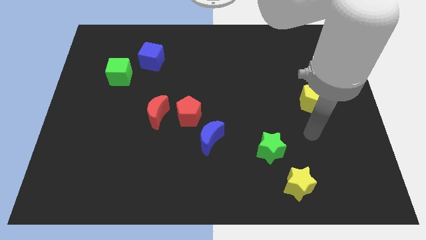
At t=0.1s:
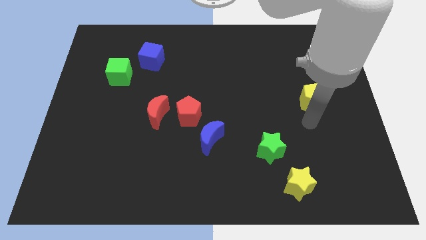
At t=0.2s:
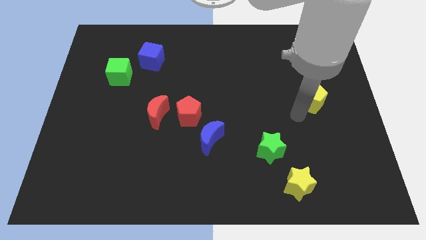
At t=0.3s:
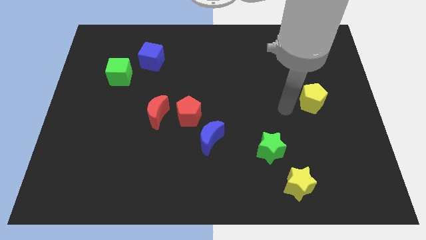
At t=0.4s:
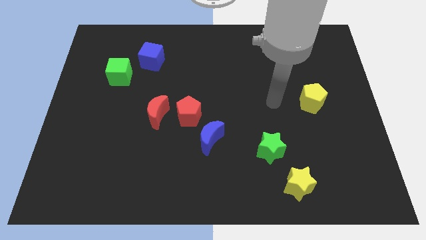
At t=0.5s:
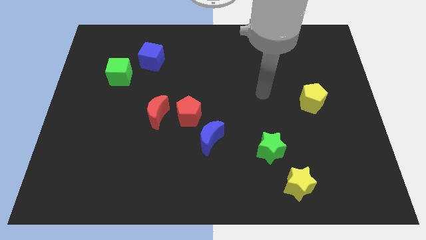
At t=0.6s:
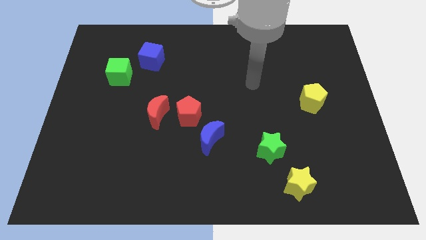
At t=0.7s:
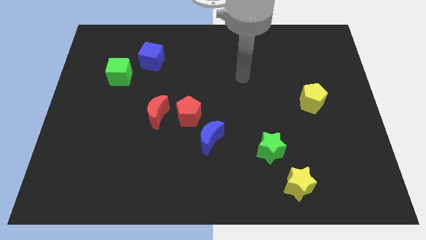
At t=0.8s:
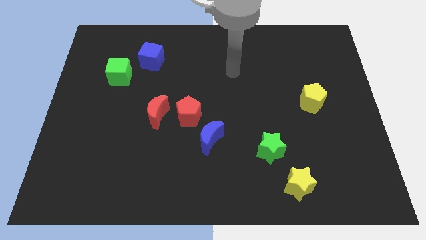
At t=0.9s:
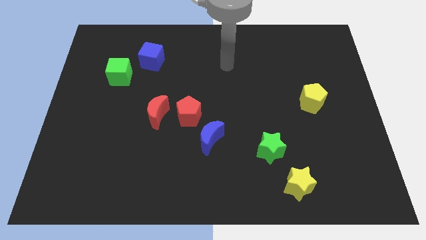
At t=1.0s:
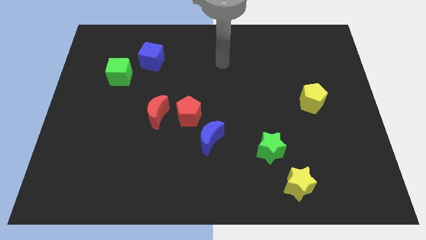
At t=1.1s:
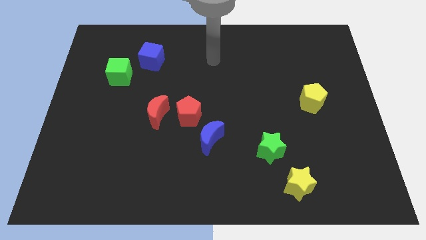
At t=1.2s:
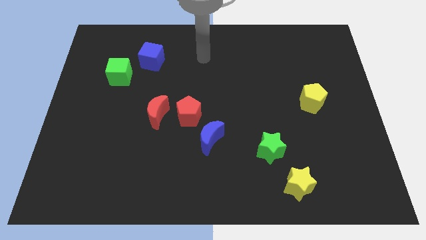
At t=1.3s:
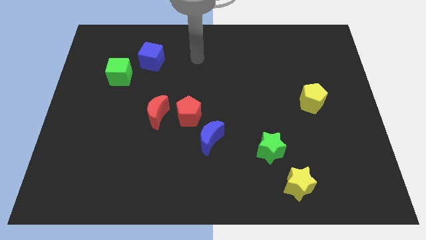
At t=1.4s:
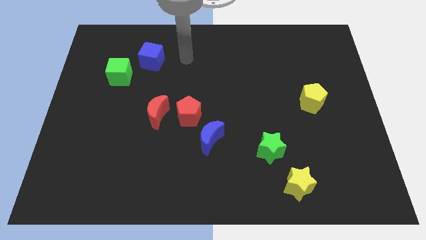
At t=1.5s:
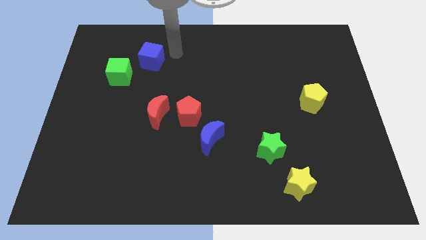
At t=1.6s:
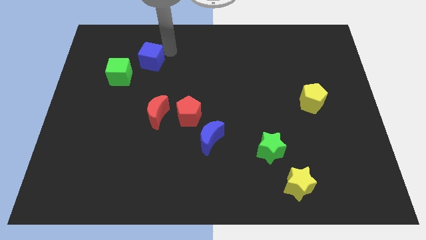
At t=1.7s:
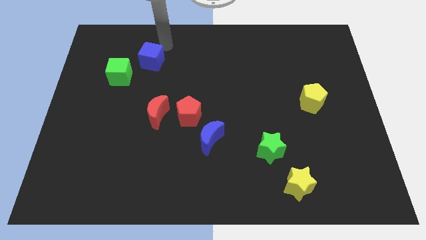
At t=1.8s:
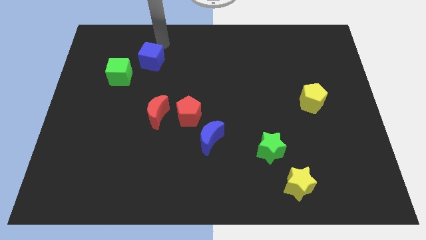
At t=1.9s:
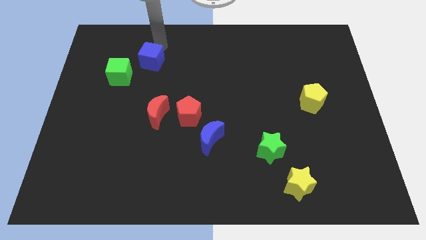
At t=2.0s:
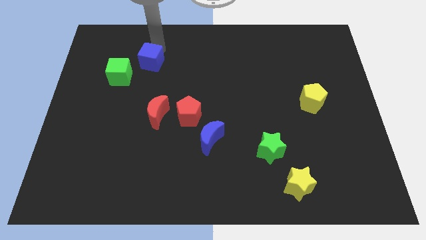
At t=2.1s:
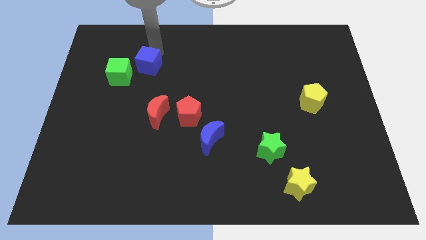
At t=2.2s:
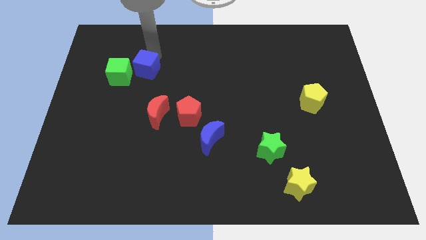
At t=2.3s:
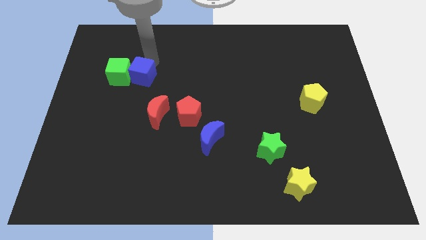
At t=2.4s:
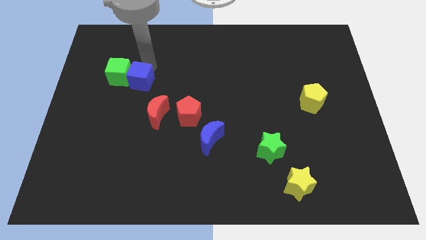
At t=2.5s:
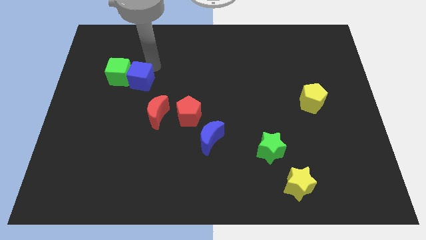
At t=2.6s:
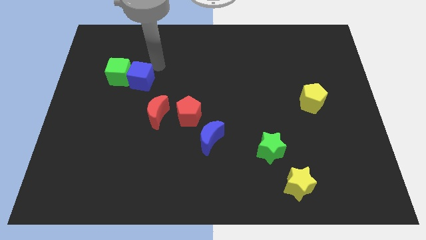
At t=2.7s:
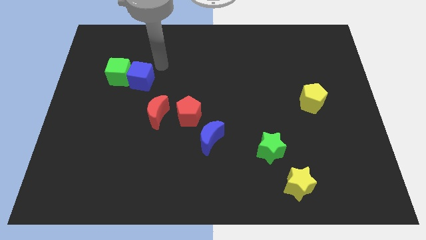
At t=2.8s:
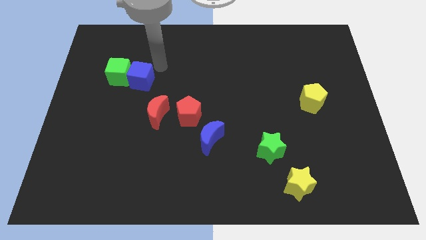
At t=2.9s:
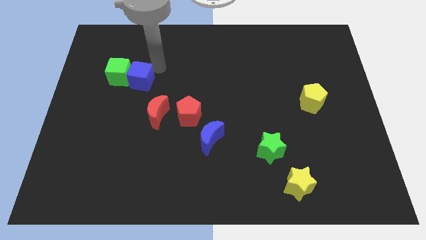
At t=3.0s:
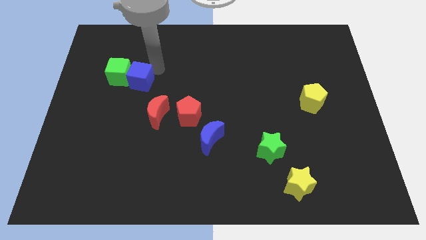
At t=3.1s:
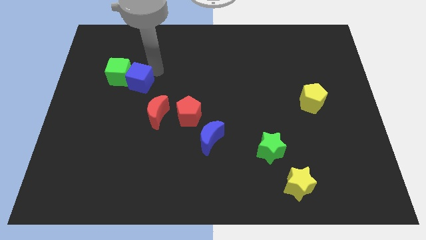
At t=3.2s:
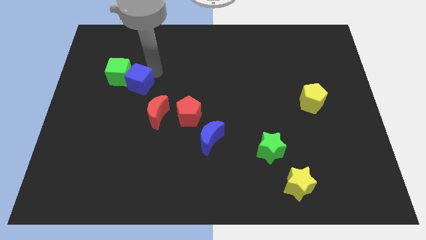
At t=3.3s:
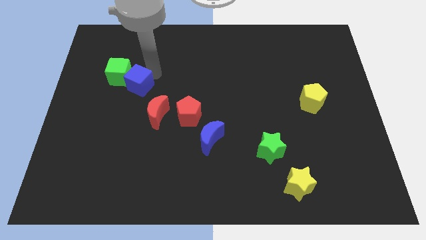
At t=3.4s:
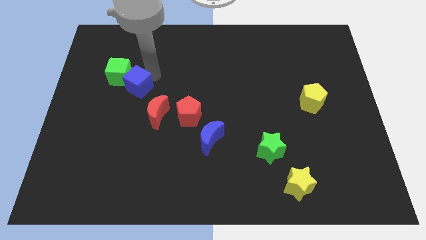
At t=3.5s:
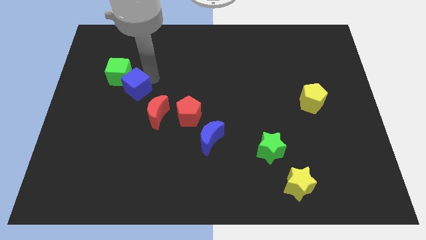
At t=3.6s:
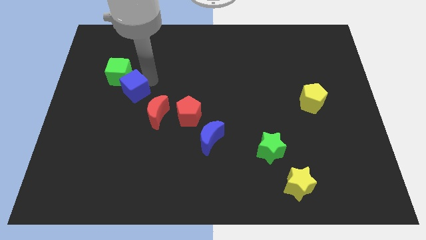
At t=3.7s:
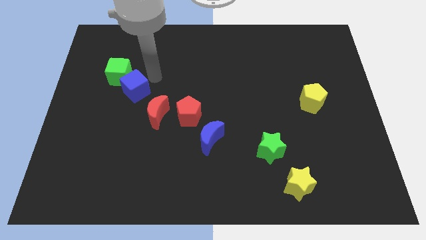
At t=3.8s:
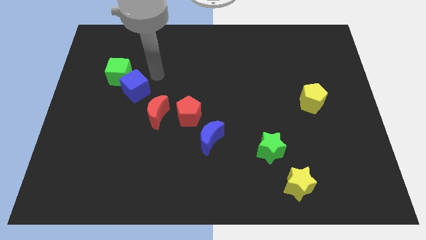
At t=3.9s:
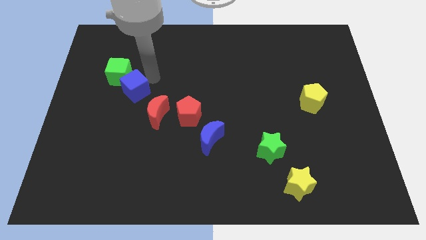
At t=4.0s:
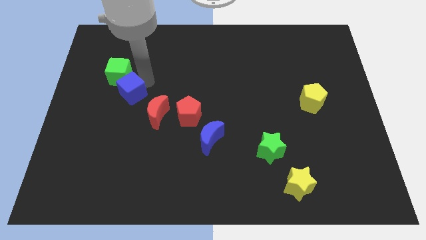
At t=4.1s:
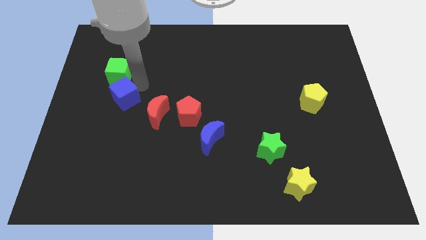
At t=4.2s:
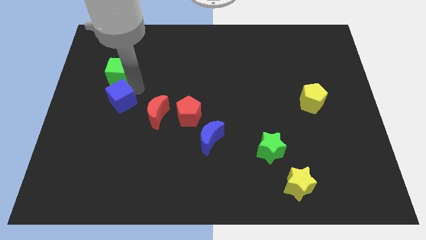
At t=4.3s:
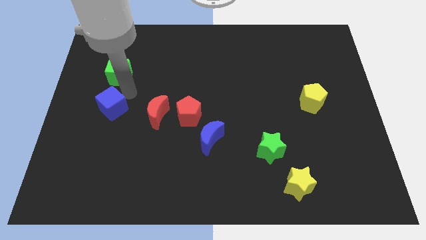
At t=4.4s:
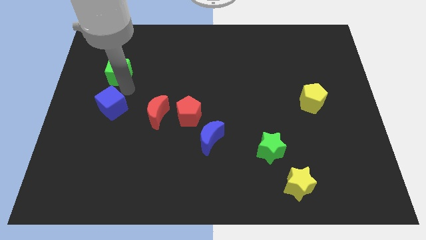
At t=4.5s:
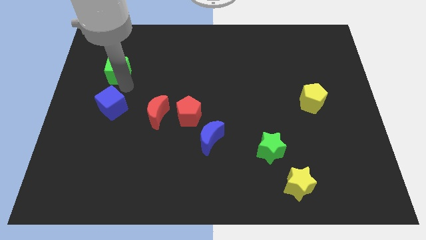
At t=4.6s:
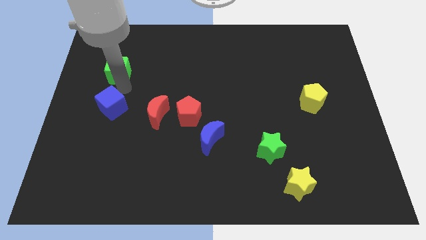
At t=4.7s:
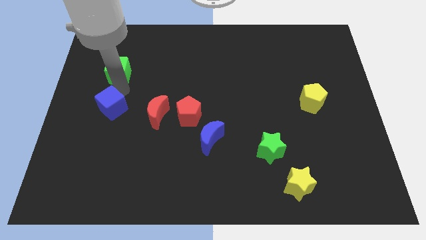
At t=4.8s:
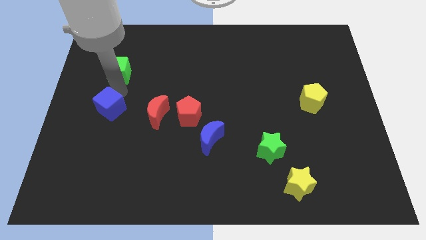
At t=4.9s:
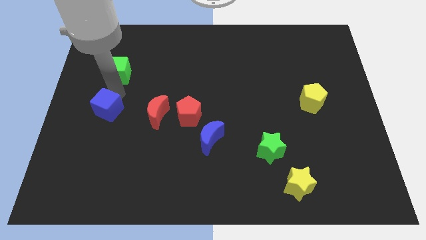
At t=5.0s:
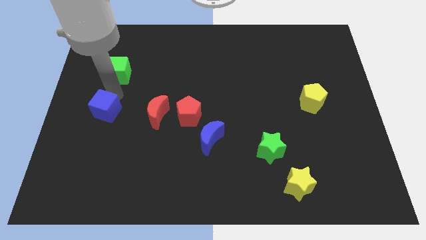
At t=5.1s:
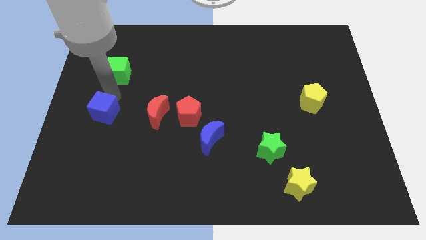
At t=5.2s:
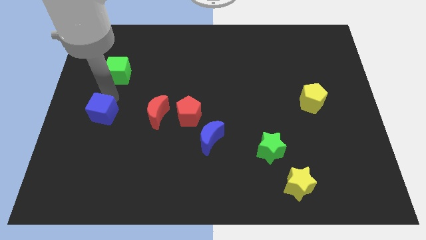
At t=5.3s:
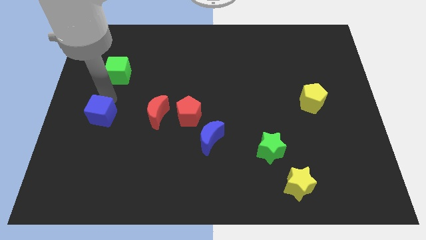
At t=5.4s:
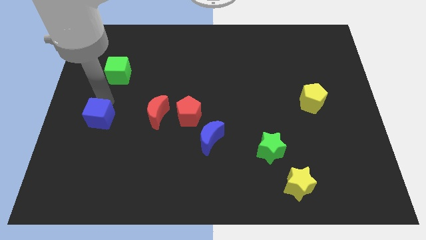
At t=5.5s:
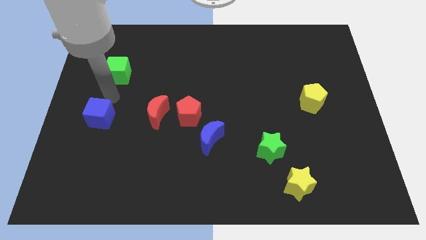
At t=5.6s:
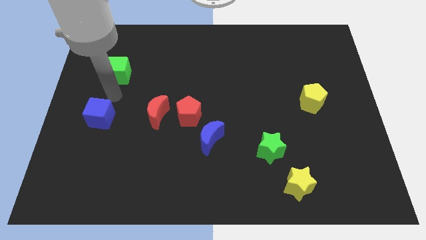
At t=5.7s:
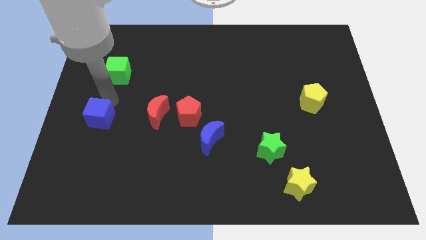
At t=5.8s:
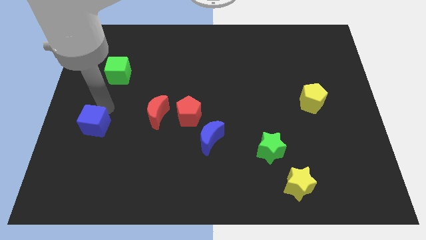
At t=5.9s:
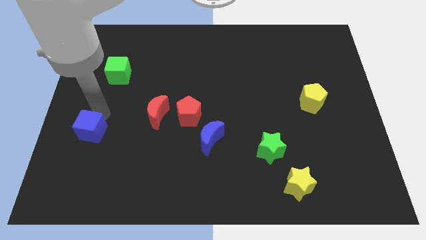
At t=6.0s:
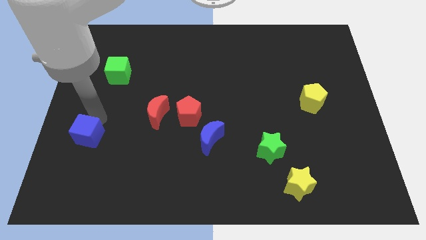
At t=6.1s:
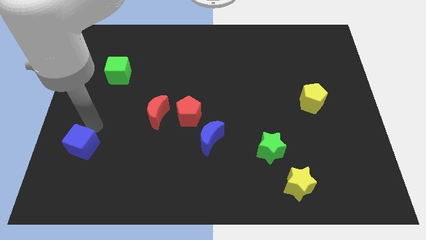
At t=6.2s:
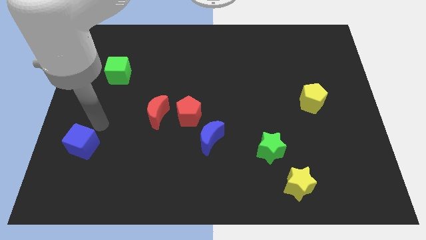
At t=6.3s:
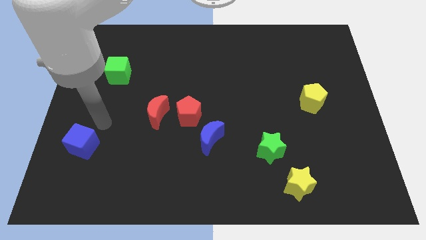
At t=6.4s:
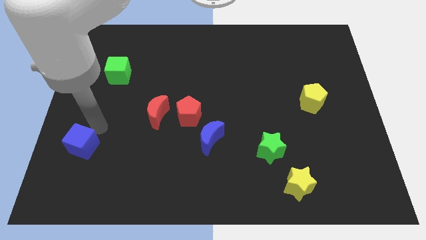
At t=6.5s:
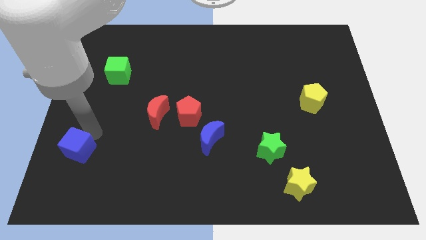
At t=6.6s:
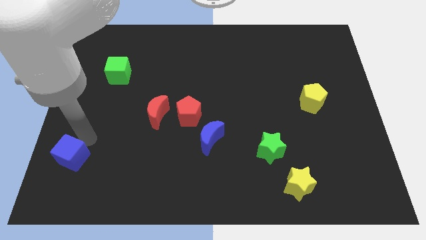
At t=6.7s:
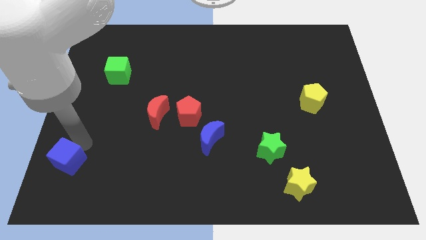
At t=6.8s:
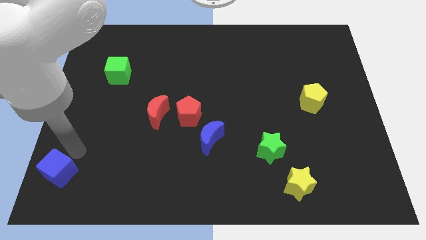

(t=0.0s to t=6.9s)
move the blue cube to the bottom left of the board
